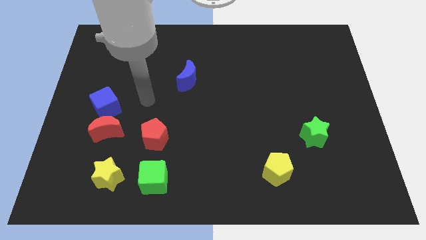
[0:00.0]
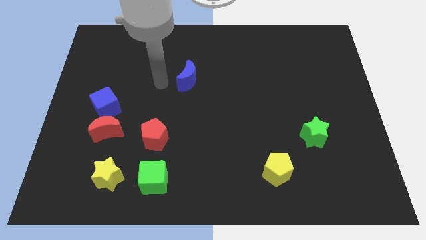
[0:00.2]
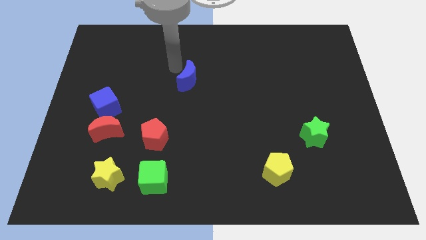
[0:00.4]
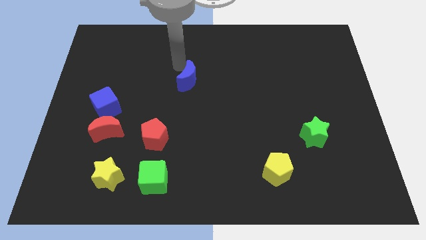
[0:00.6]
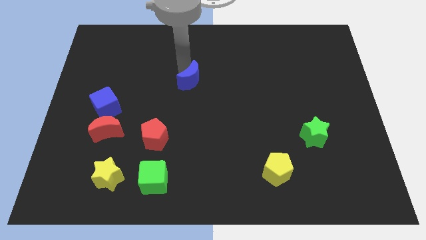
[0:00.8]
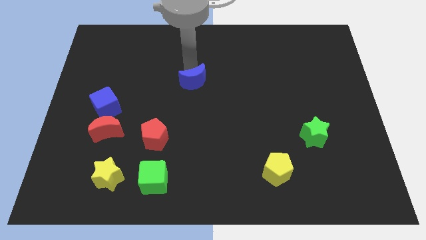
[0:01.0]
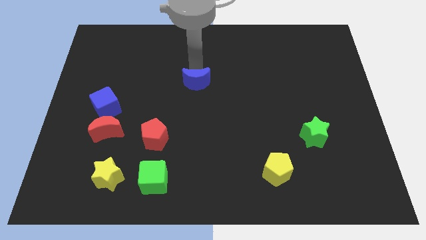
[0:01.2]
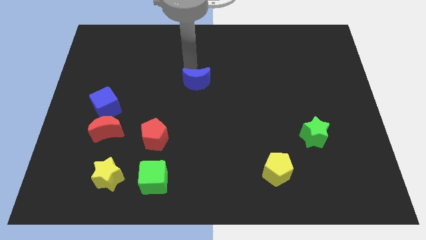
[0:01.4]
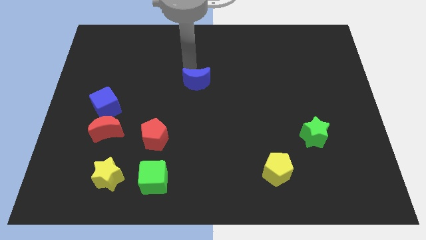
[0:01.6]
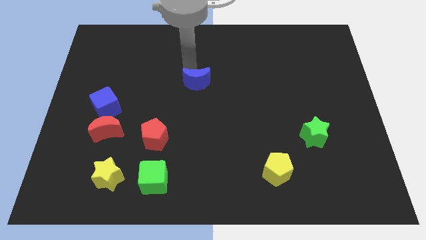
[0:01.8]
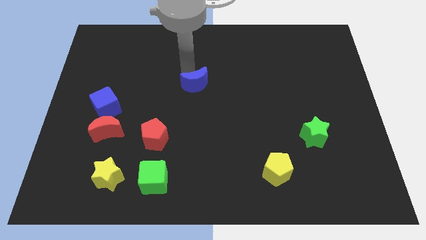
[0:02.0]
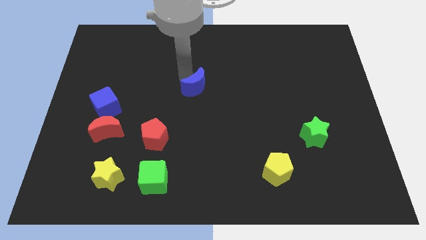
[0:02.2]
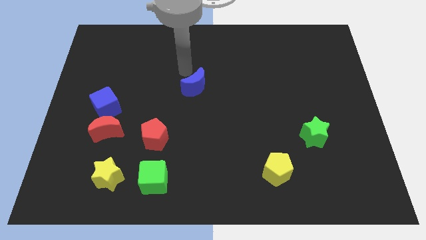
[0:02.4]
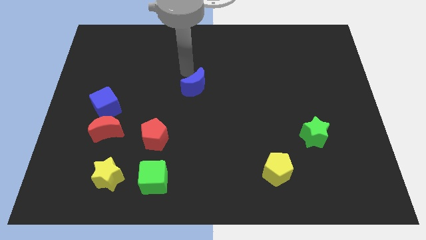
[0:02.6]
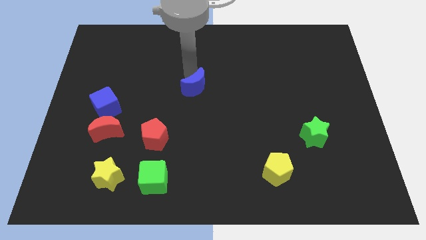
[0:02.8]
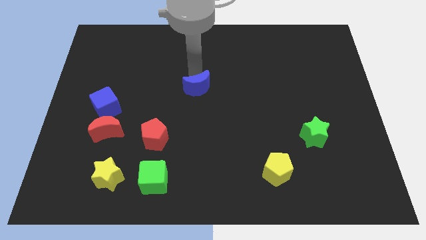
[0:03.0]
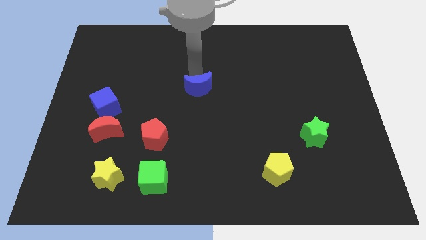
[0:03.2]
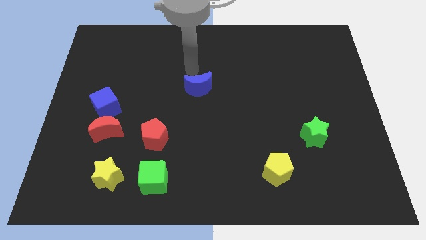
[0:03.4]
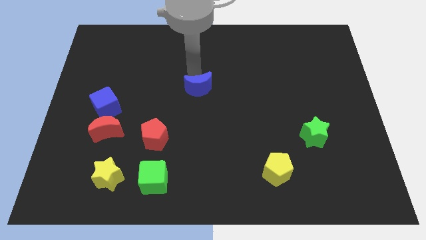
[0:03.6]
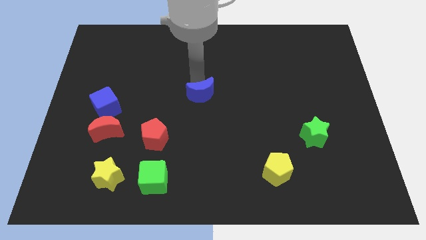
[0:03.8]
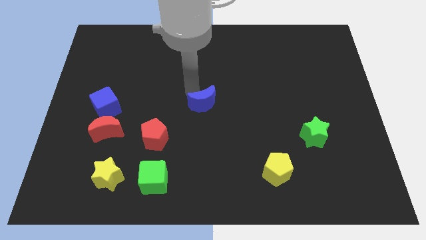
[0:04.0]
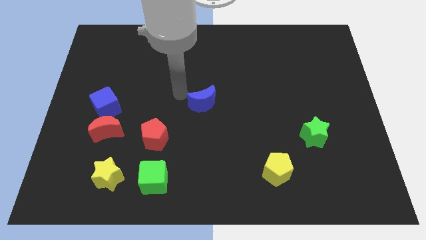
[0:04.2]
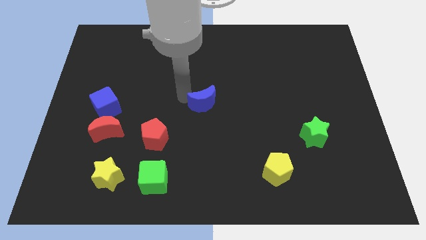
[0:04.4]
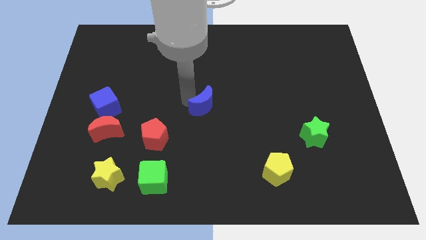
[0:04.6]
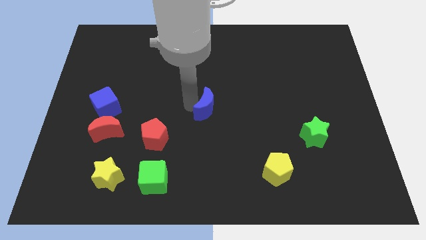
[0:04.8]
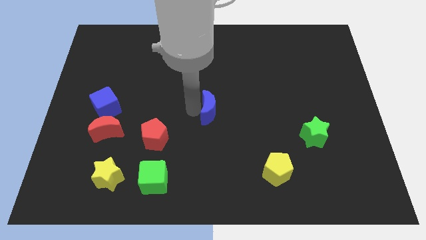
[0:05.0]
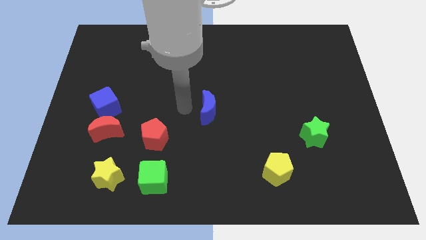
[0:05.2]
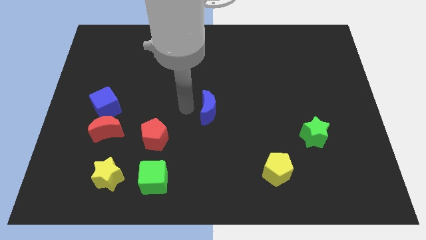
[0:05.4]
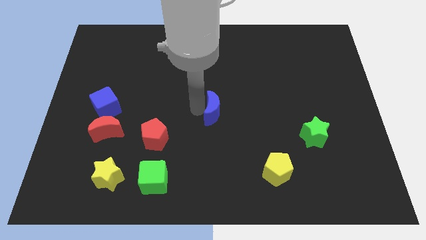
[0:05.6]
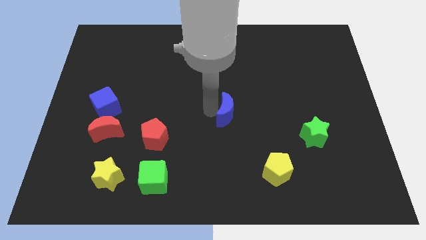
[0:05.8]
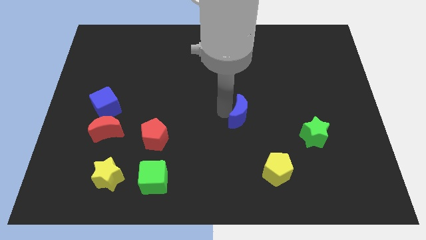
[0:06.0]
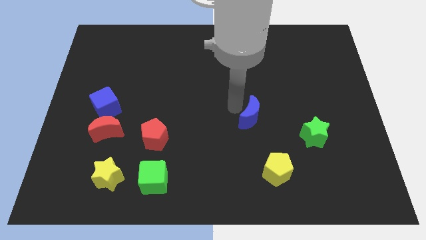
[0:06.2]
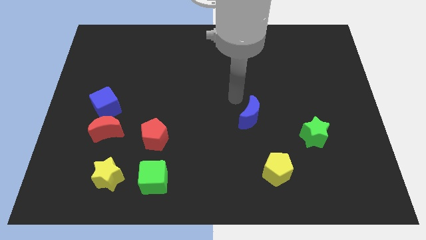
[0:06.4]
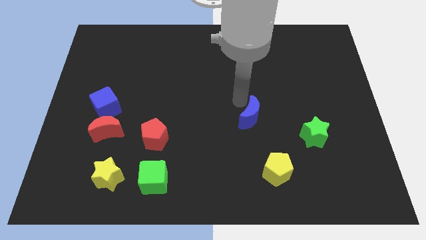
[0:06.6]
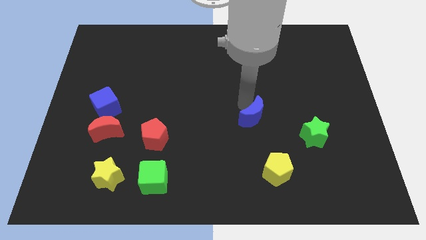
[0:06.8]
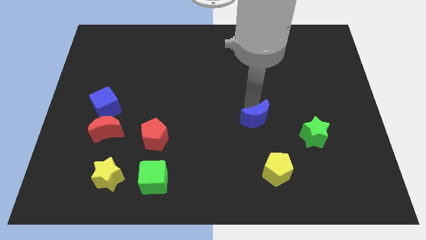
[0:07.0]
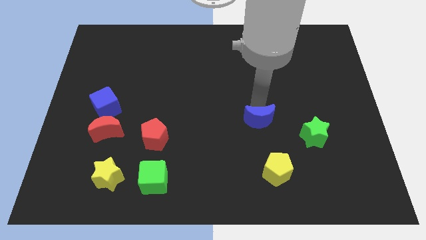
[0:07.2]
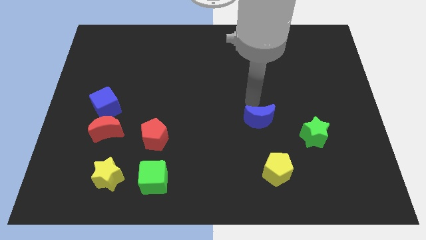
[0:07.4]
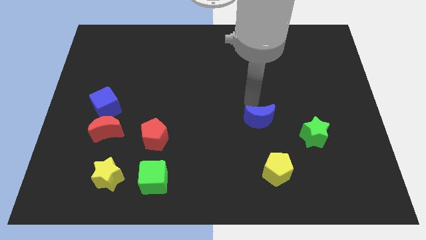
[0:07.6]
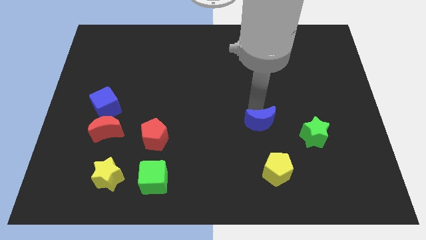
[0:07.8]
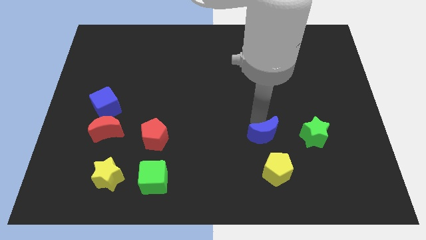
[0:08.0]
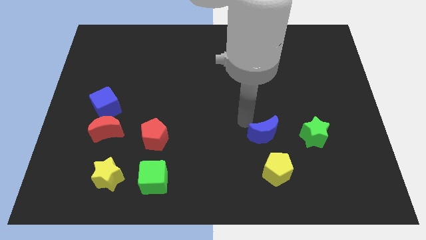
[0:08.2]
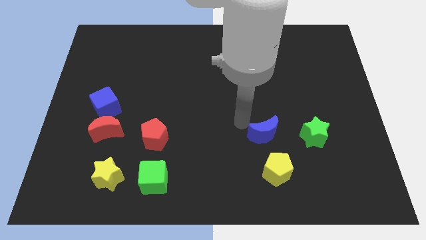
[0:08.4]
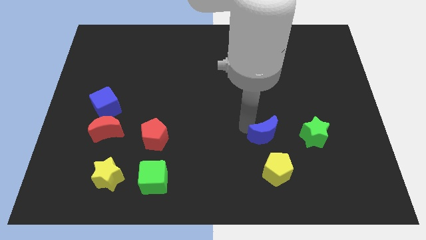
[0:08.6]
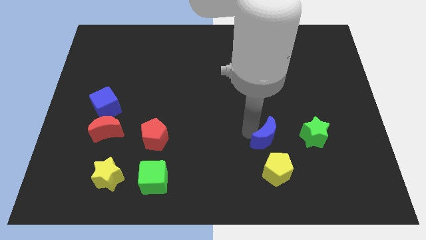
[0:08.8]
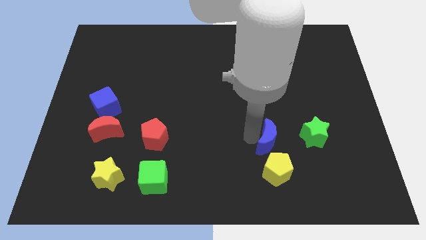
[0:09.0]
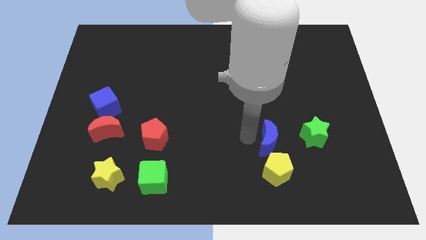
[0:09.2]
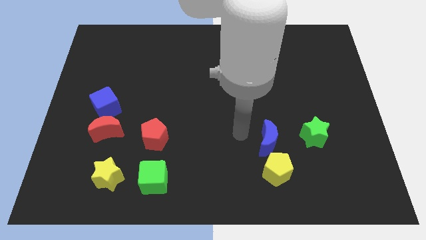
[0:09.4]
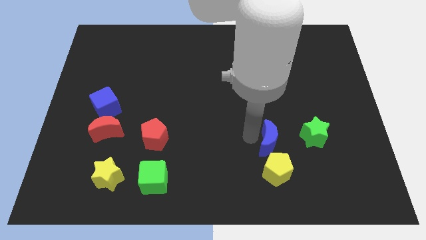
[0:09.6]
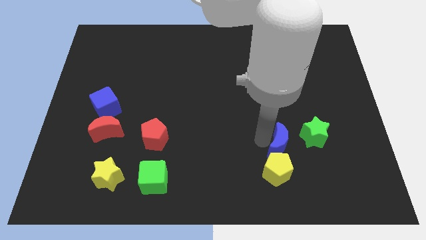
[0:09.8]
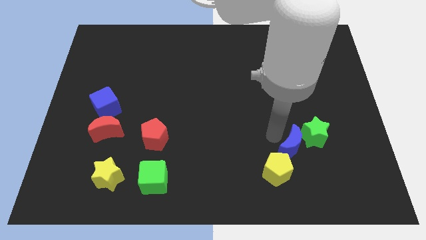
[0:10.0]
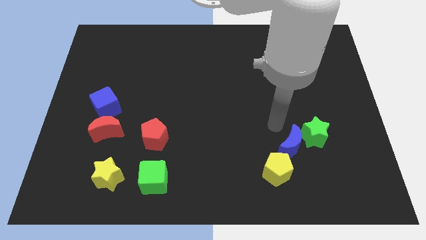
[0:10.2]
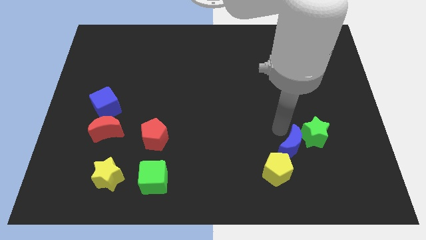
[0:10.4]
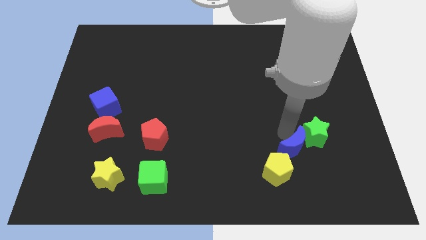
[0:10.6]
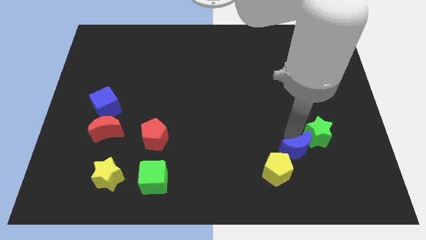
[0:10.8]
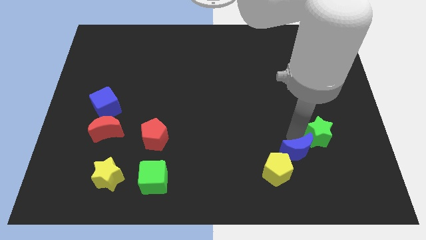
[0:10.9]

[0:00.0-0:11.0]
put the blue moon to the bottom side of the green star

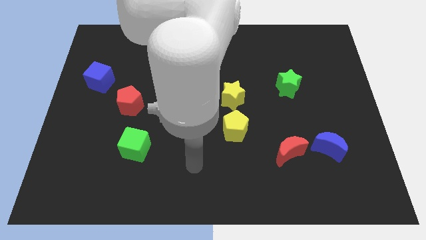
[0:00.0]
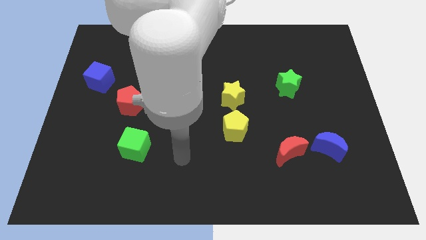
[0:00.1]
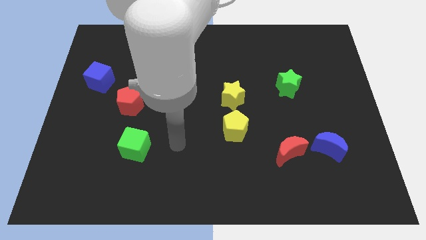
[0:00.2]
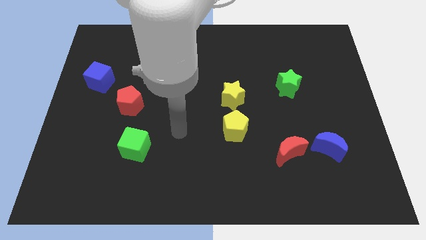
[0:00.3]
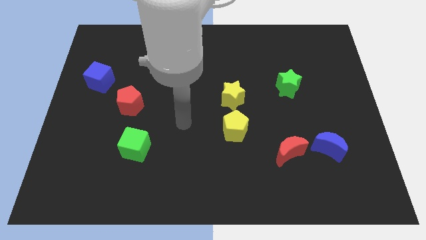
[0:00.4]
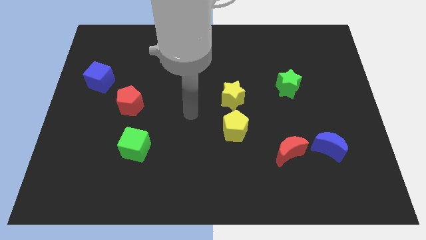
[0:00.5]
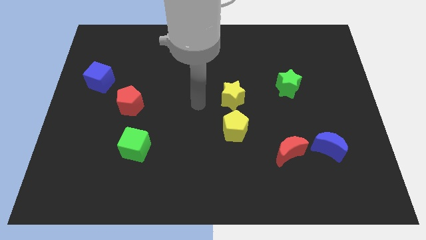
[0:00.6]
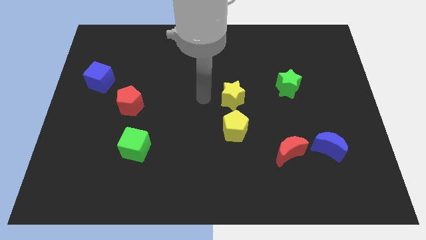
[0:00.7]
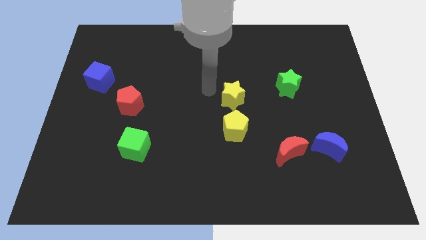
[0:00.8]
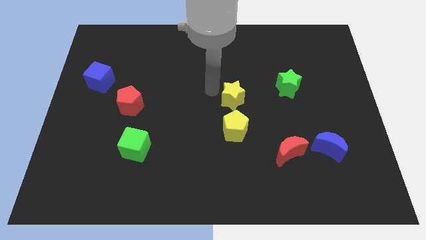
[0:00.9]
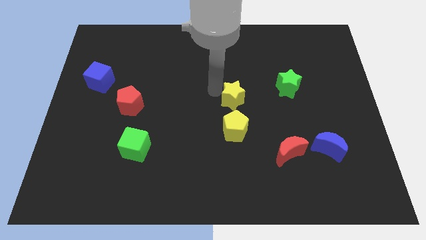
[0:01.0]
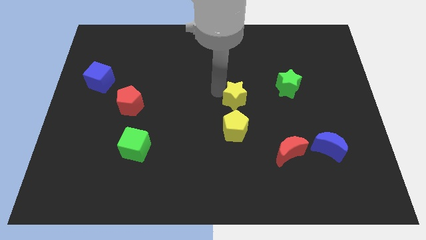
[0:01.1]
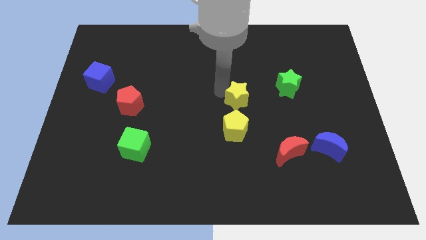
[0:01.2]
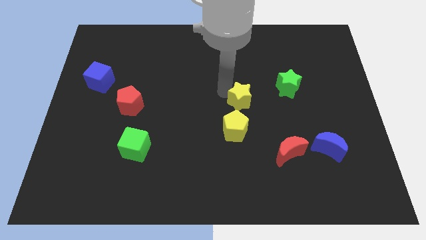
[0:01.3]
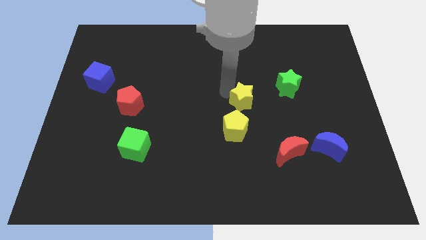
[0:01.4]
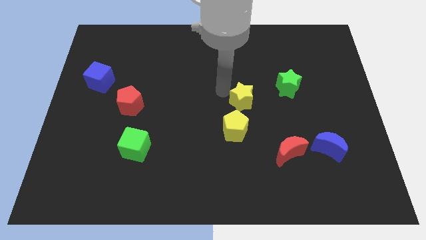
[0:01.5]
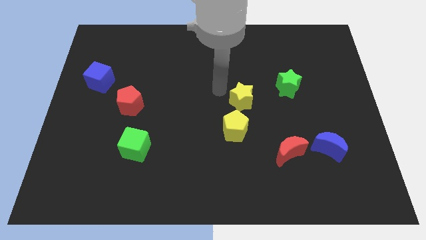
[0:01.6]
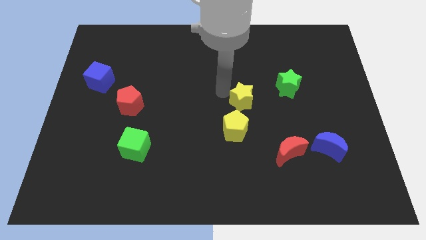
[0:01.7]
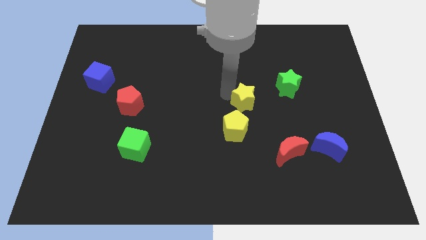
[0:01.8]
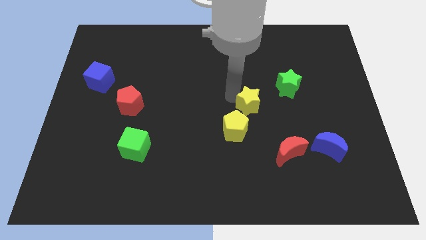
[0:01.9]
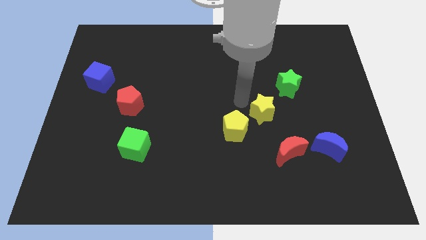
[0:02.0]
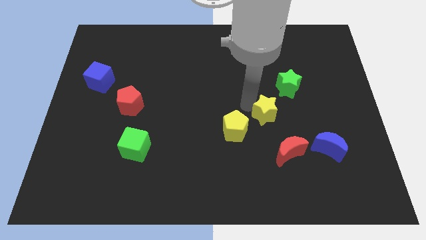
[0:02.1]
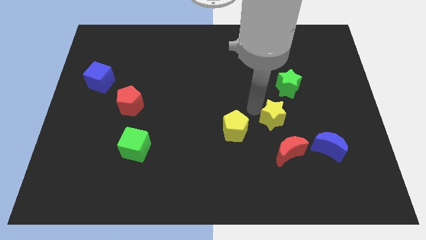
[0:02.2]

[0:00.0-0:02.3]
move the yellow star to the bottom side of the green star
